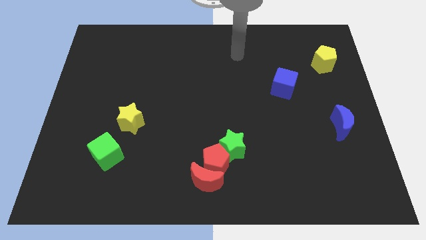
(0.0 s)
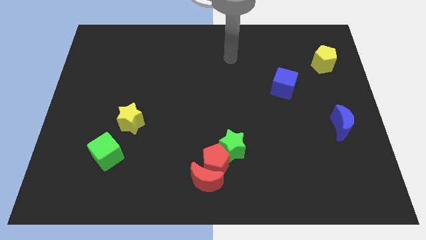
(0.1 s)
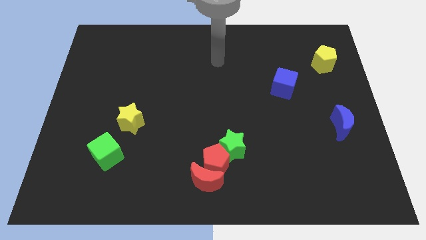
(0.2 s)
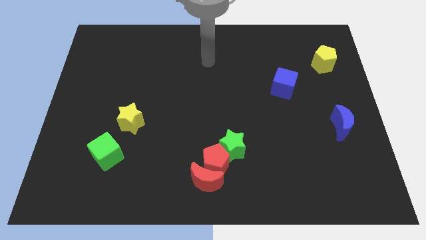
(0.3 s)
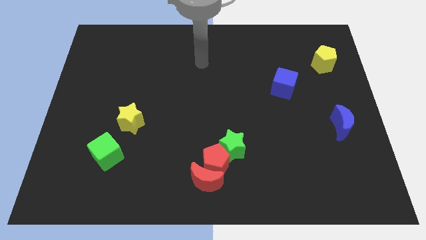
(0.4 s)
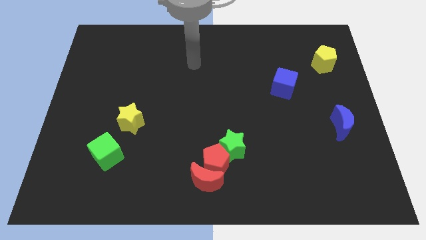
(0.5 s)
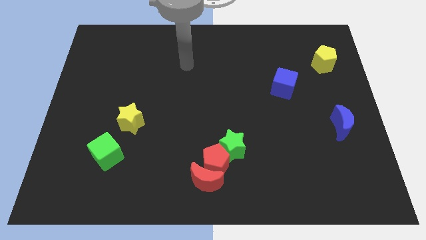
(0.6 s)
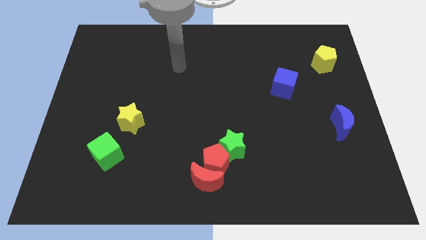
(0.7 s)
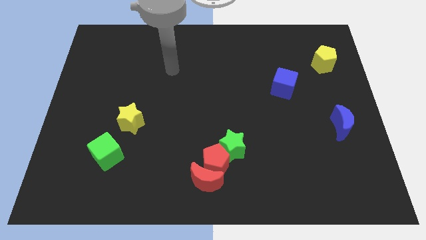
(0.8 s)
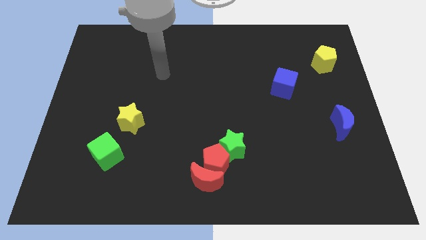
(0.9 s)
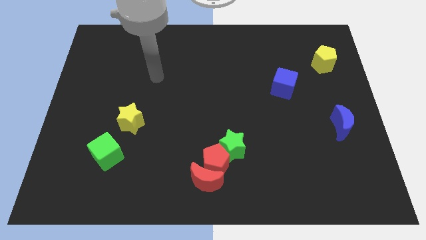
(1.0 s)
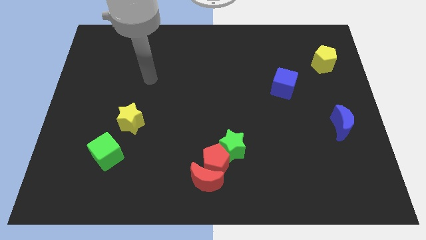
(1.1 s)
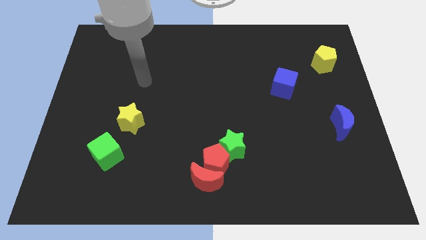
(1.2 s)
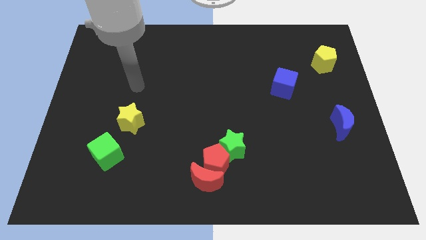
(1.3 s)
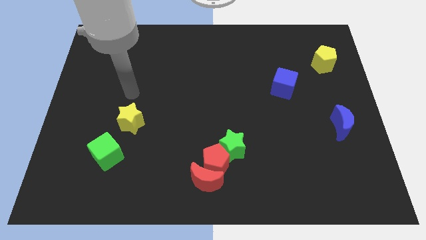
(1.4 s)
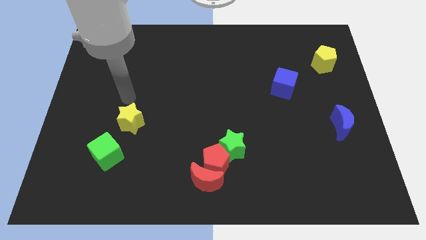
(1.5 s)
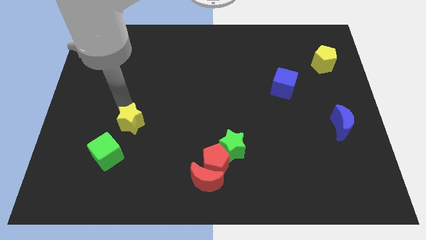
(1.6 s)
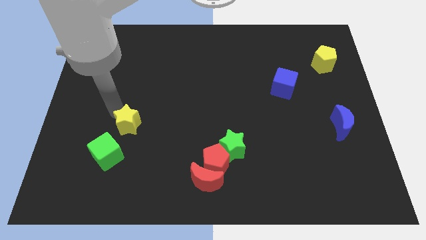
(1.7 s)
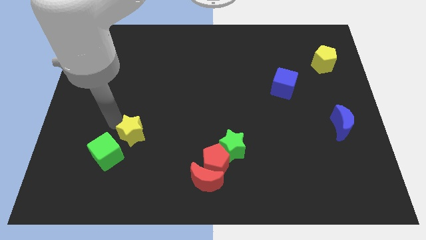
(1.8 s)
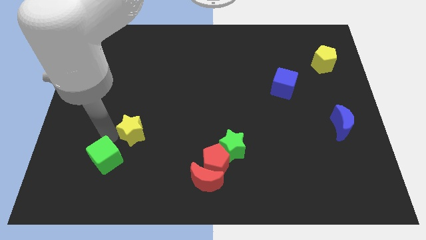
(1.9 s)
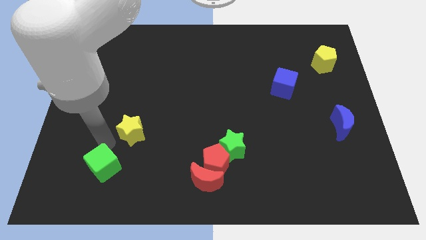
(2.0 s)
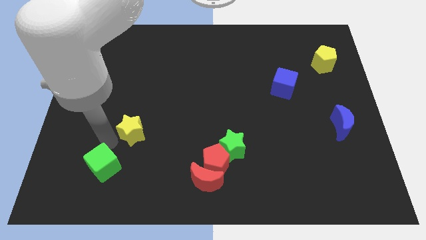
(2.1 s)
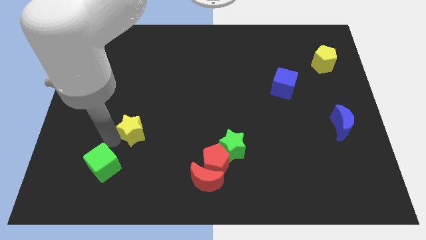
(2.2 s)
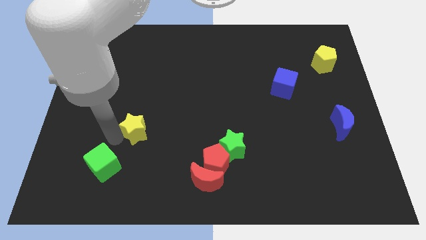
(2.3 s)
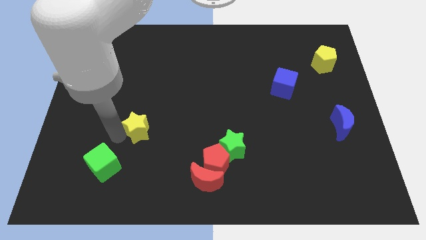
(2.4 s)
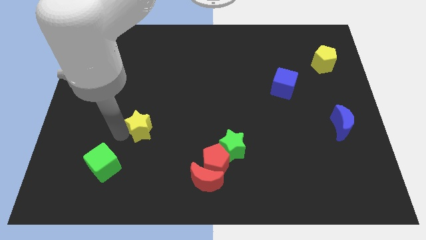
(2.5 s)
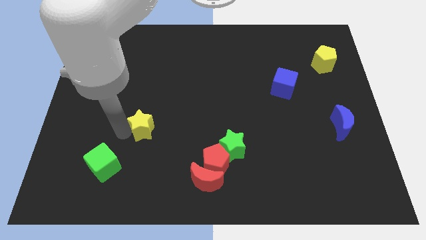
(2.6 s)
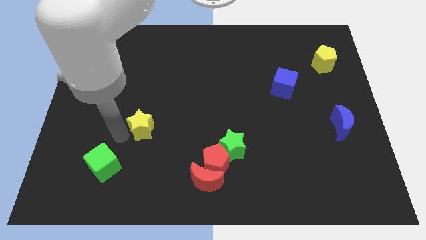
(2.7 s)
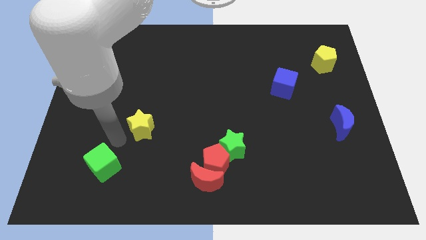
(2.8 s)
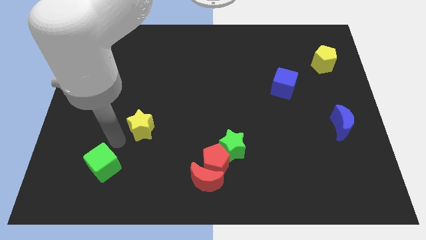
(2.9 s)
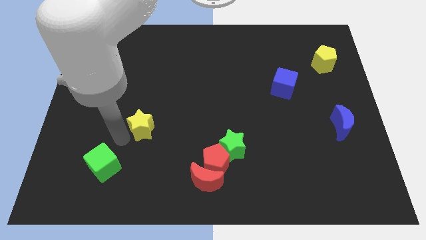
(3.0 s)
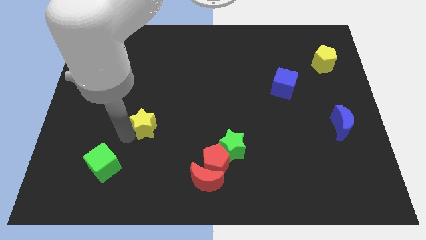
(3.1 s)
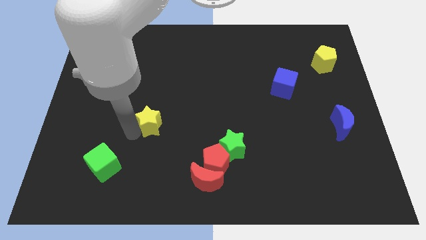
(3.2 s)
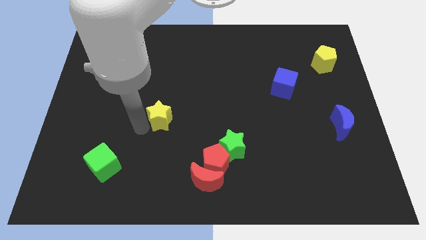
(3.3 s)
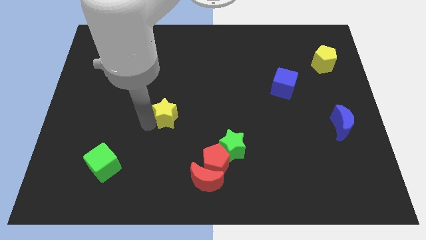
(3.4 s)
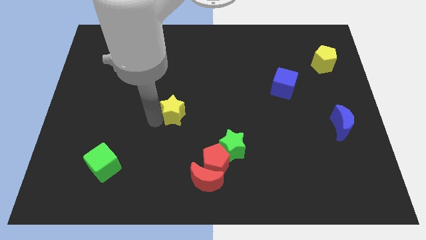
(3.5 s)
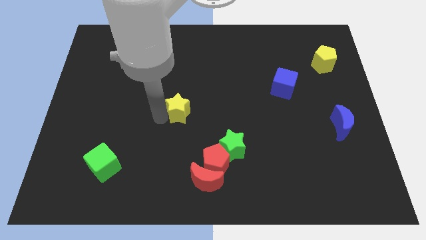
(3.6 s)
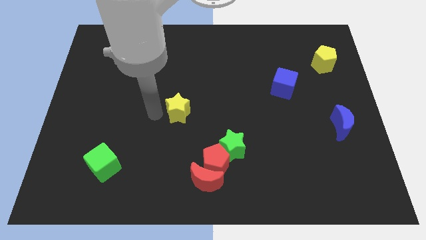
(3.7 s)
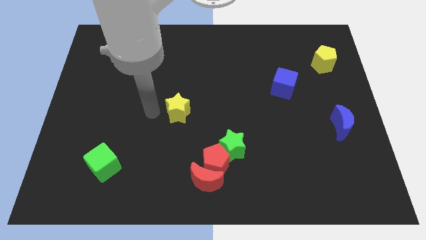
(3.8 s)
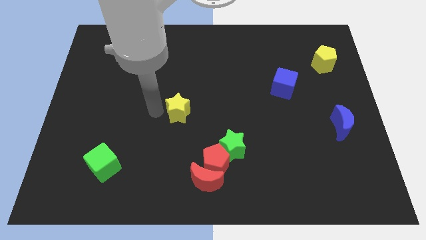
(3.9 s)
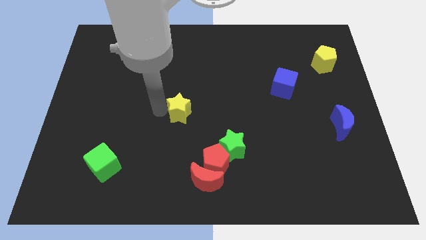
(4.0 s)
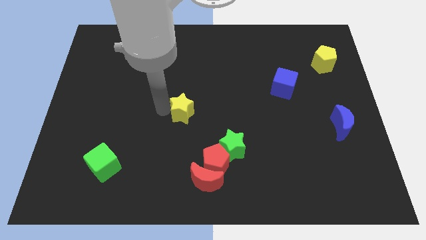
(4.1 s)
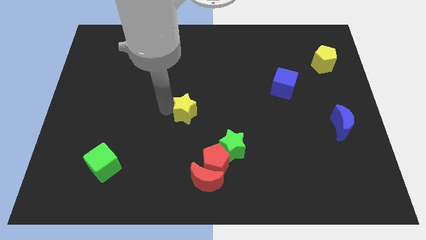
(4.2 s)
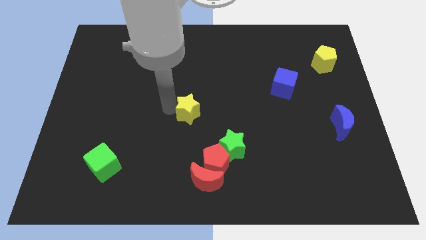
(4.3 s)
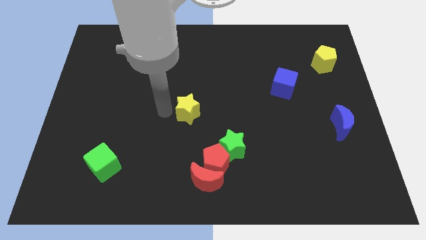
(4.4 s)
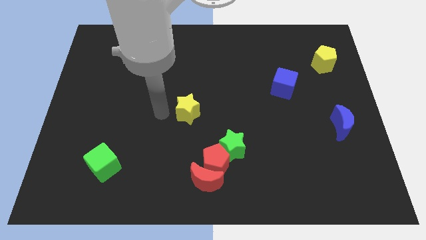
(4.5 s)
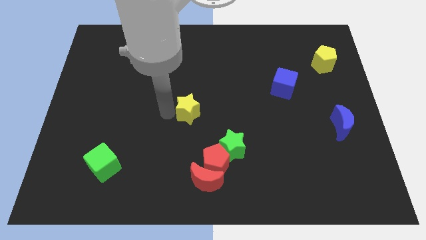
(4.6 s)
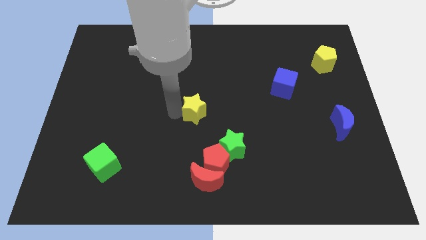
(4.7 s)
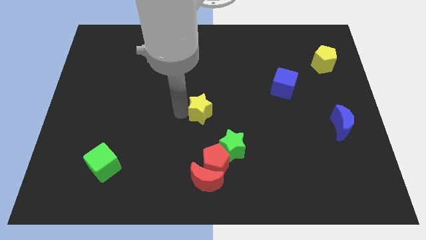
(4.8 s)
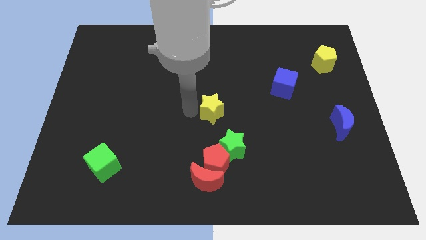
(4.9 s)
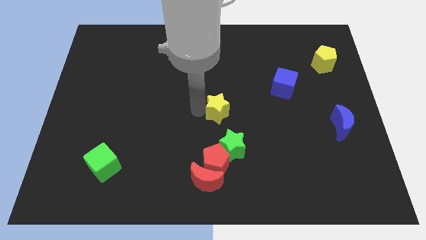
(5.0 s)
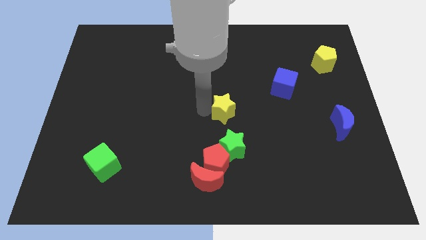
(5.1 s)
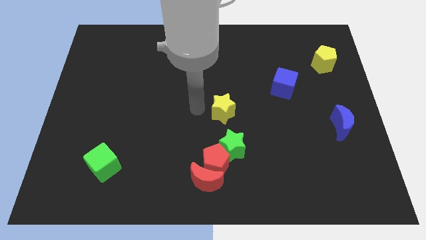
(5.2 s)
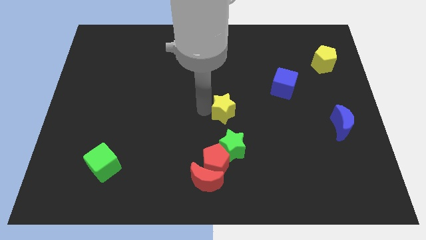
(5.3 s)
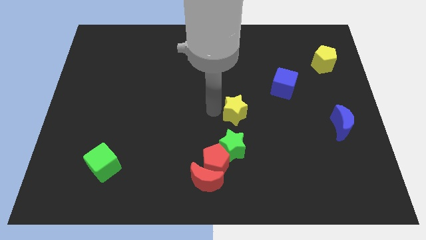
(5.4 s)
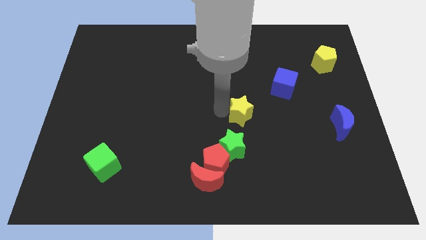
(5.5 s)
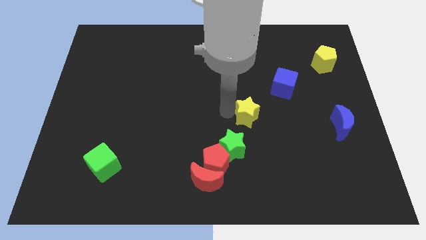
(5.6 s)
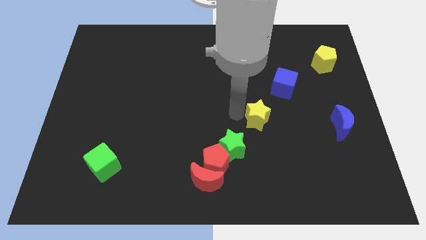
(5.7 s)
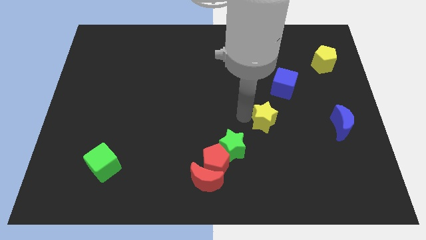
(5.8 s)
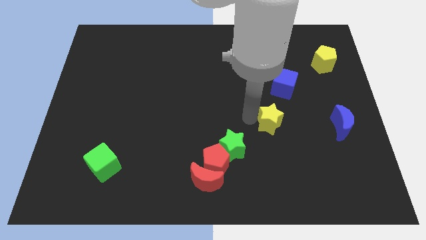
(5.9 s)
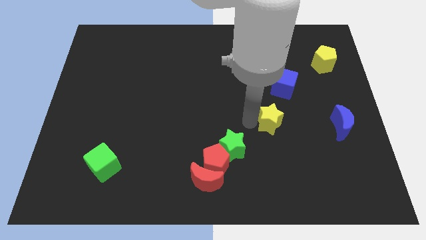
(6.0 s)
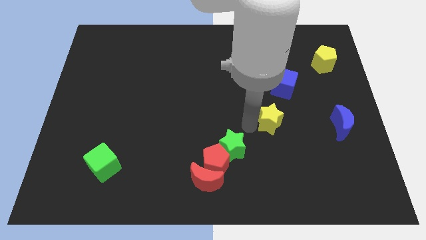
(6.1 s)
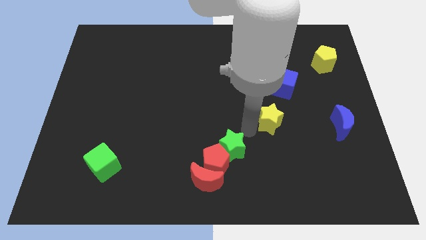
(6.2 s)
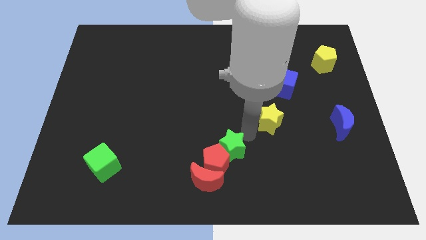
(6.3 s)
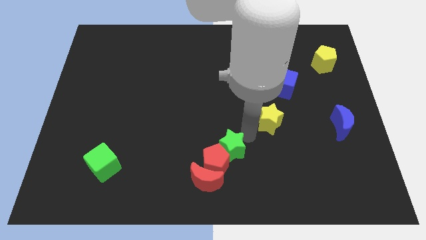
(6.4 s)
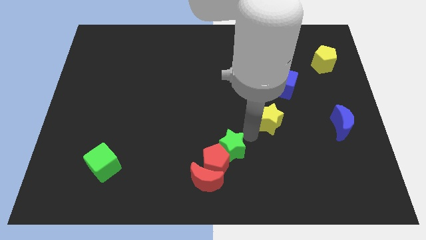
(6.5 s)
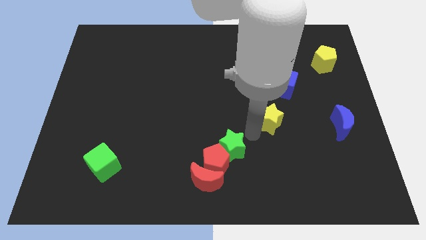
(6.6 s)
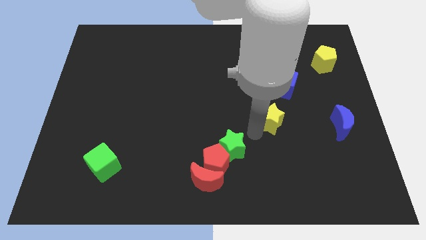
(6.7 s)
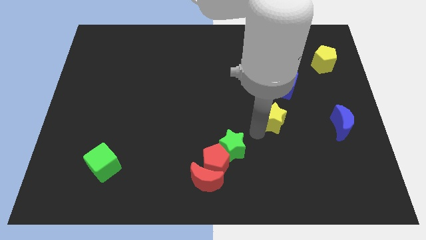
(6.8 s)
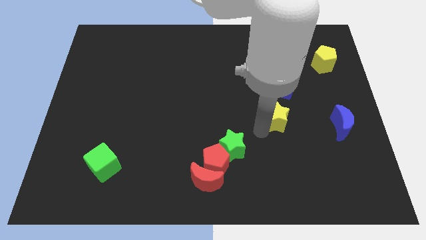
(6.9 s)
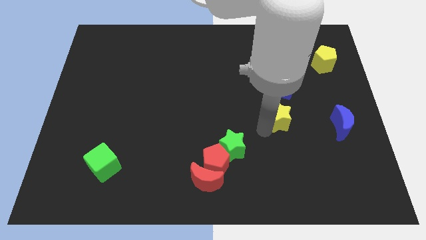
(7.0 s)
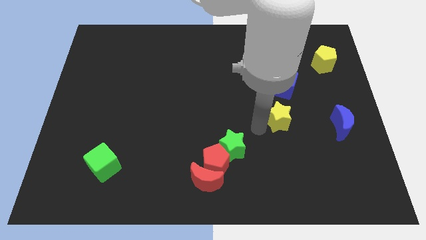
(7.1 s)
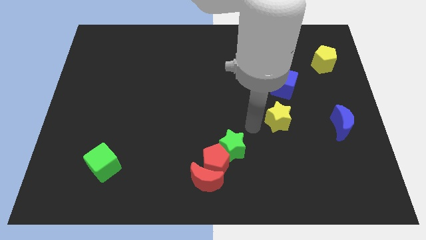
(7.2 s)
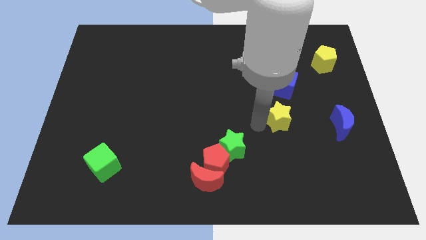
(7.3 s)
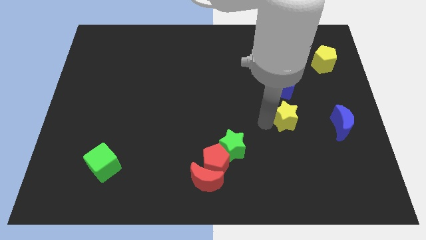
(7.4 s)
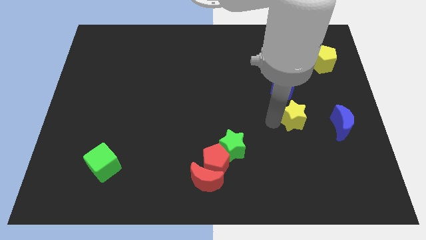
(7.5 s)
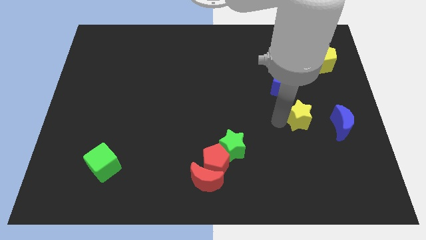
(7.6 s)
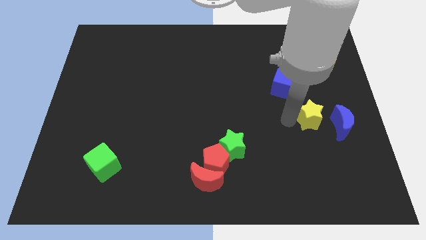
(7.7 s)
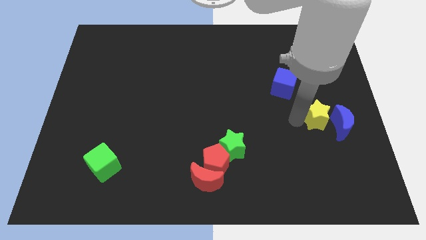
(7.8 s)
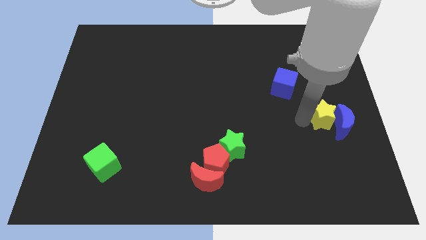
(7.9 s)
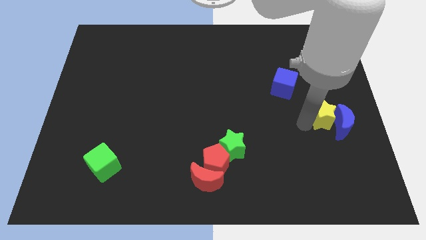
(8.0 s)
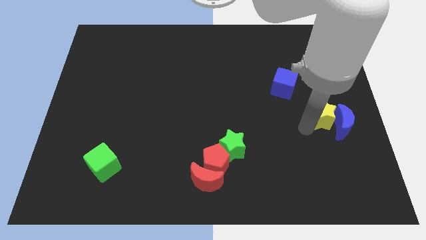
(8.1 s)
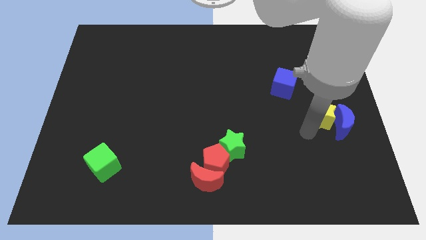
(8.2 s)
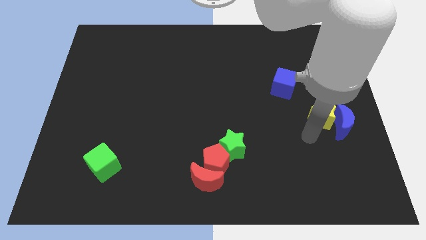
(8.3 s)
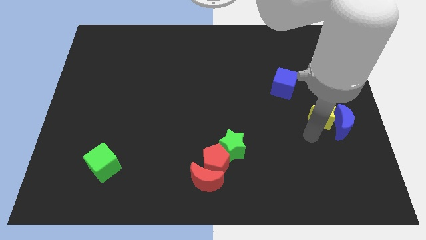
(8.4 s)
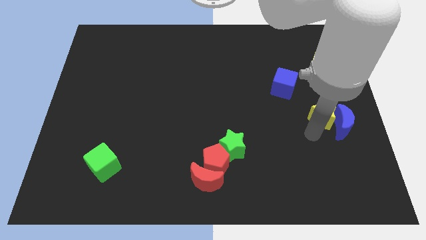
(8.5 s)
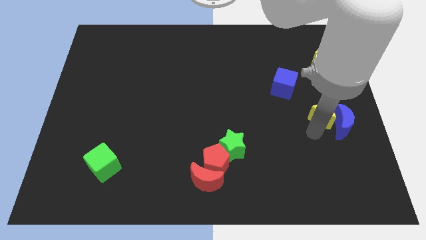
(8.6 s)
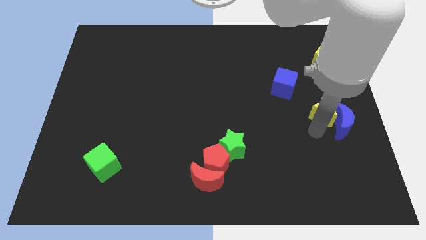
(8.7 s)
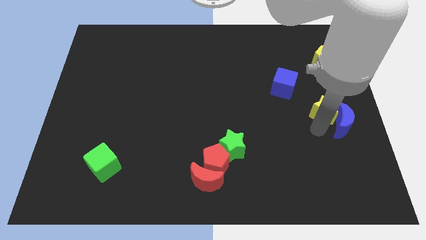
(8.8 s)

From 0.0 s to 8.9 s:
push the yellow star to the right side of the board
